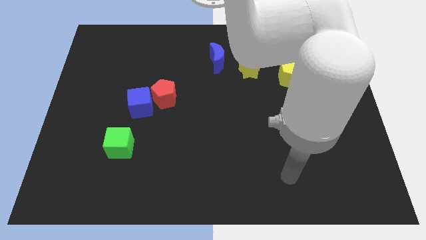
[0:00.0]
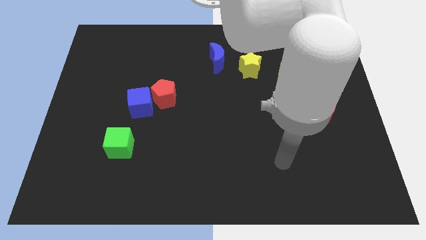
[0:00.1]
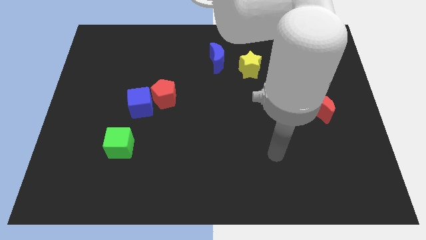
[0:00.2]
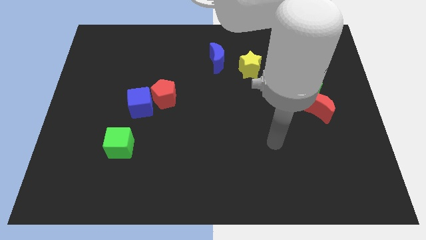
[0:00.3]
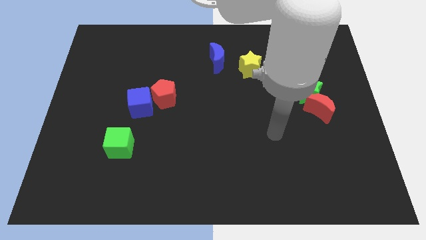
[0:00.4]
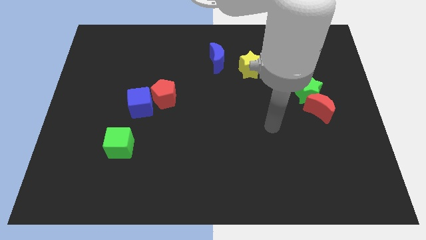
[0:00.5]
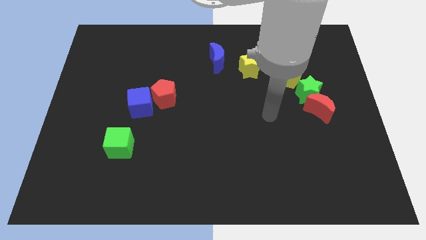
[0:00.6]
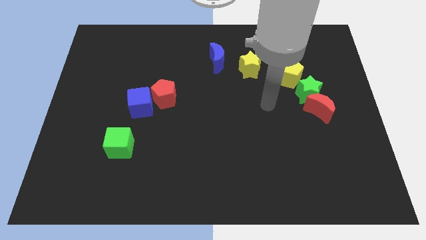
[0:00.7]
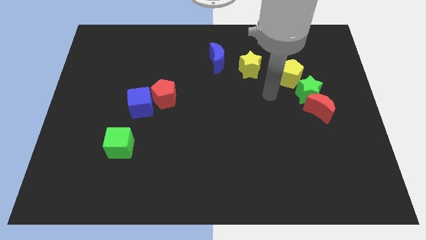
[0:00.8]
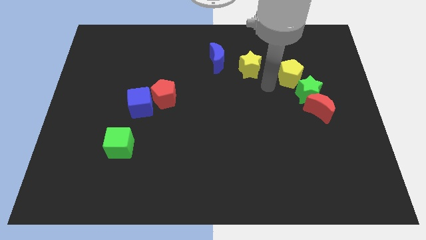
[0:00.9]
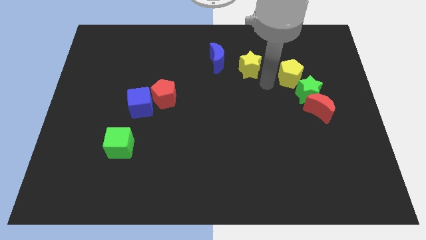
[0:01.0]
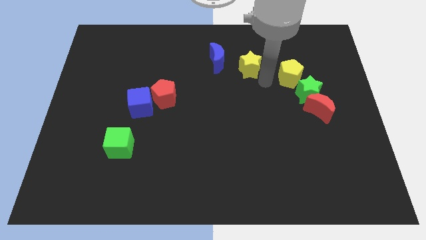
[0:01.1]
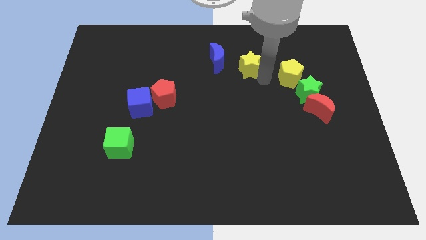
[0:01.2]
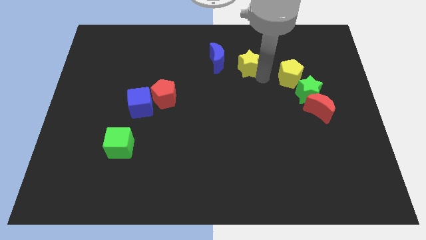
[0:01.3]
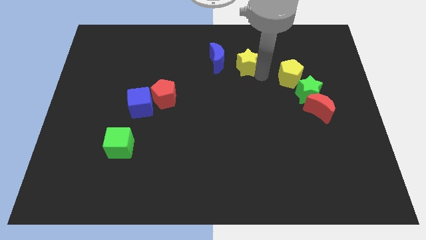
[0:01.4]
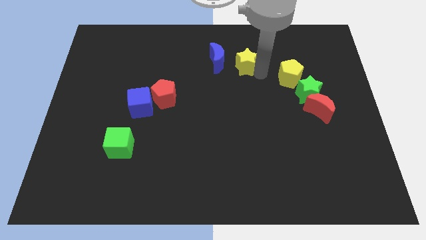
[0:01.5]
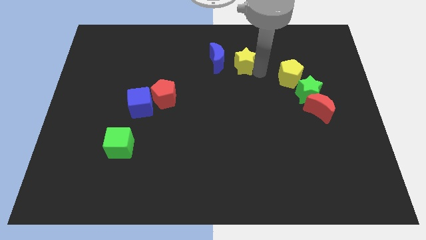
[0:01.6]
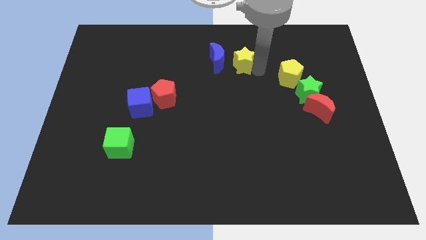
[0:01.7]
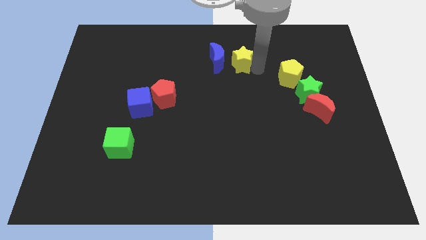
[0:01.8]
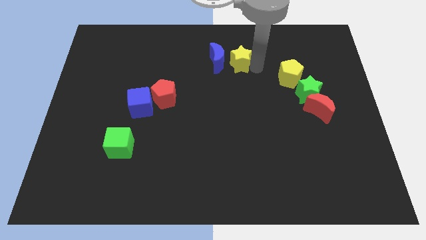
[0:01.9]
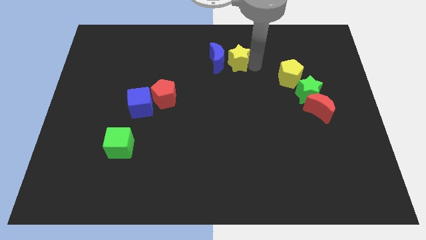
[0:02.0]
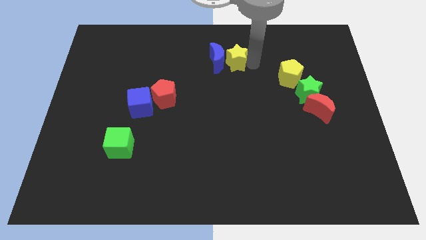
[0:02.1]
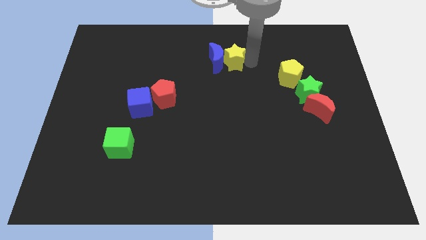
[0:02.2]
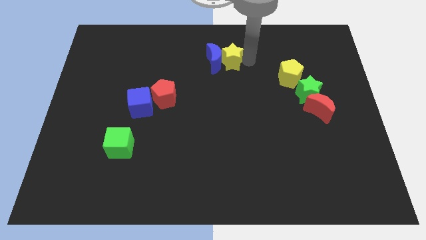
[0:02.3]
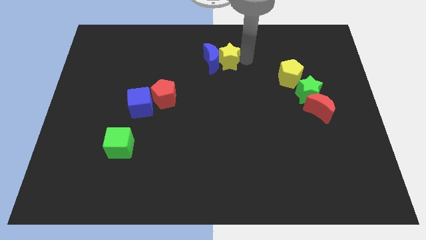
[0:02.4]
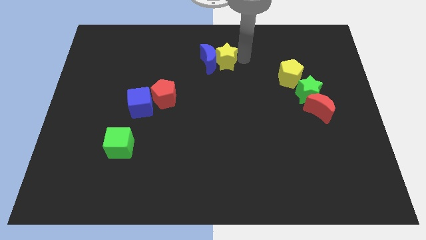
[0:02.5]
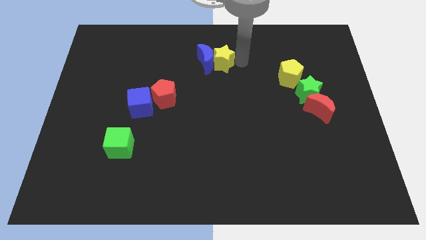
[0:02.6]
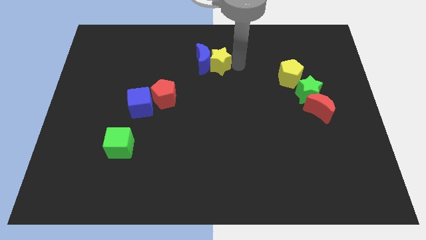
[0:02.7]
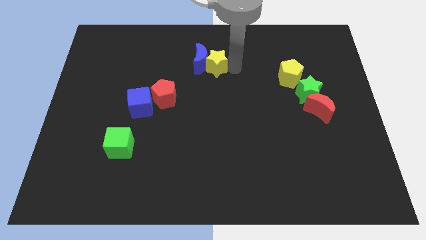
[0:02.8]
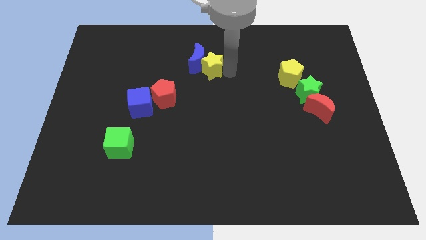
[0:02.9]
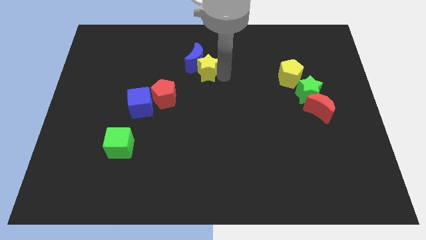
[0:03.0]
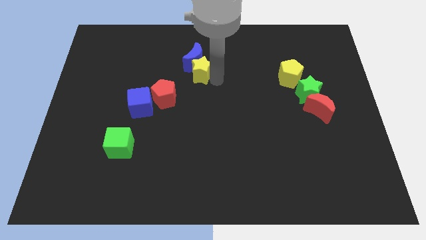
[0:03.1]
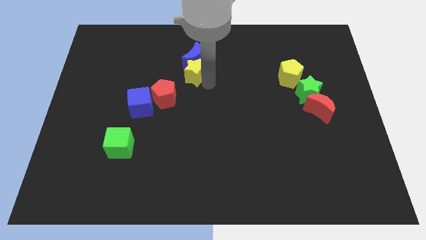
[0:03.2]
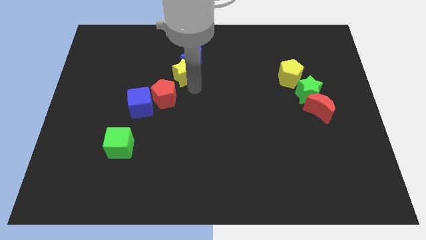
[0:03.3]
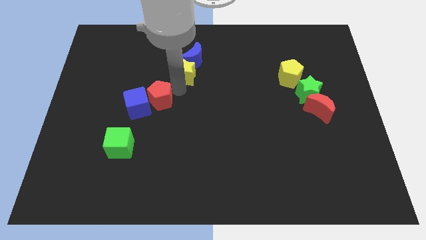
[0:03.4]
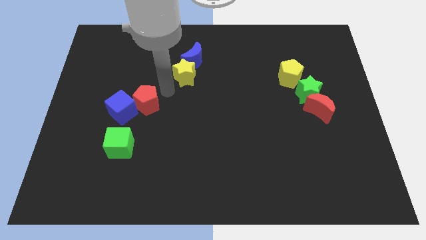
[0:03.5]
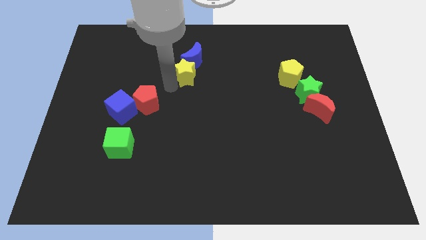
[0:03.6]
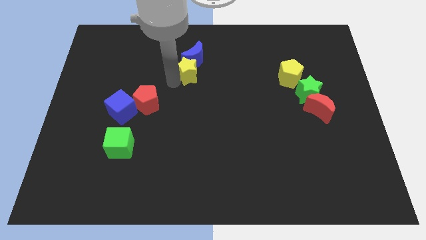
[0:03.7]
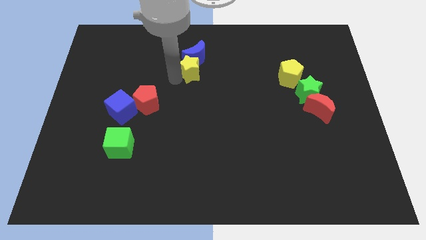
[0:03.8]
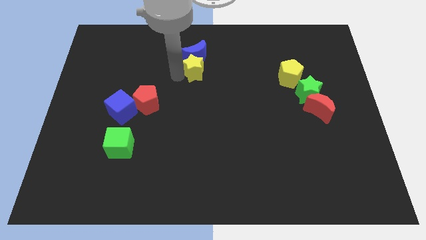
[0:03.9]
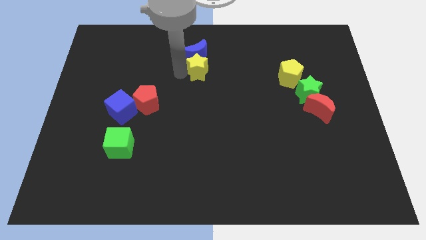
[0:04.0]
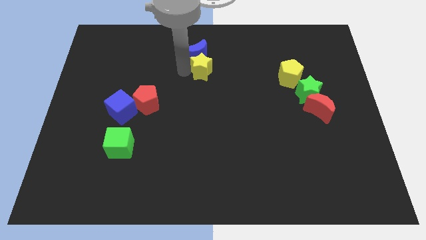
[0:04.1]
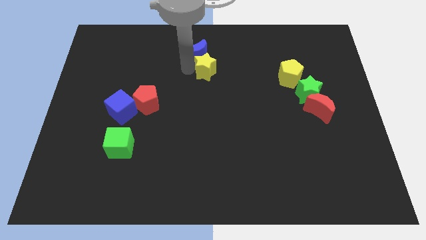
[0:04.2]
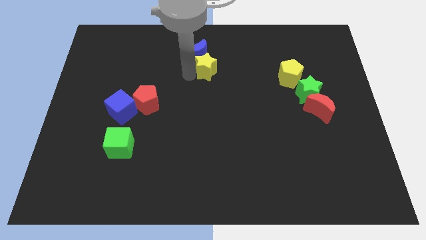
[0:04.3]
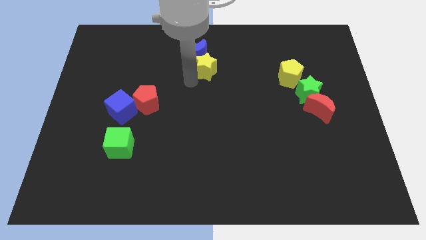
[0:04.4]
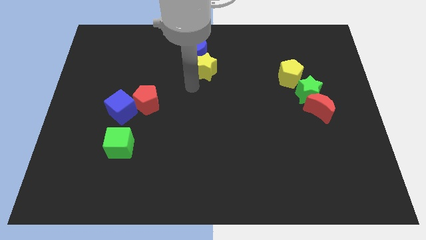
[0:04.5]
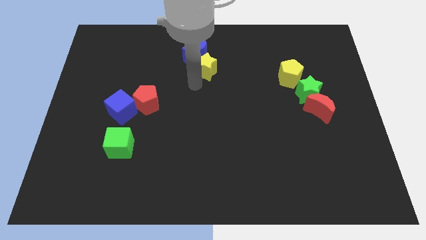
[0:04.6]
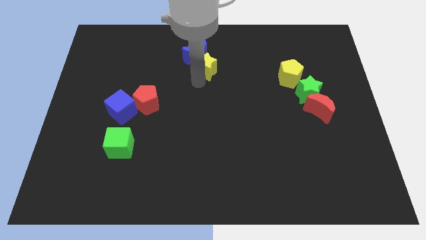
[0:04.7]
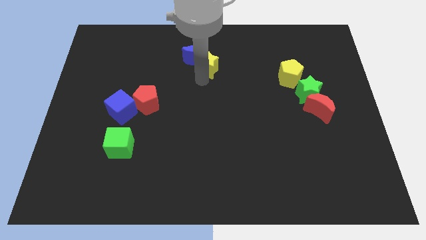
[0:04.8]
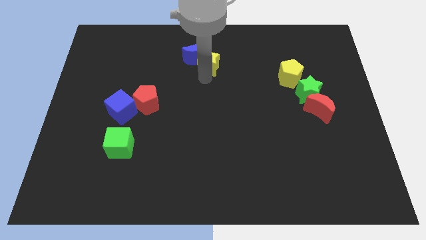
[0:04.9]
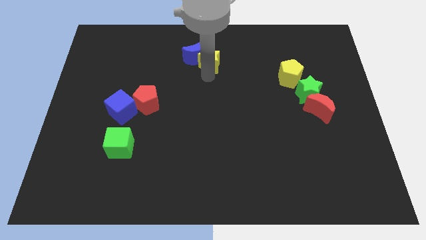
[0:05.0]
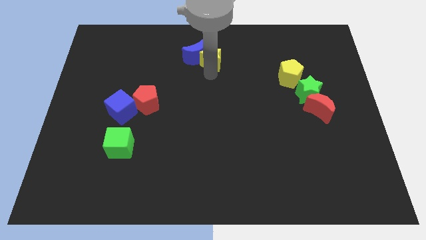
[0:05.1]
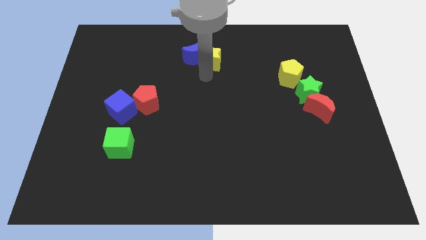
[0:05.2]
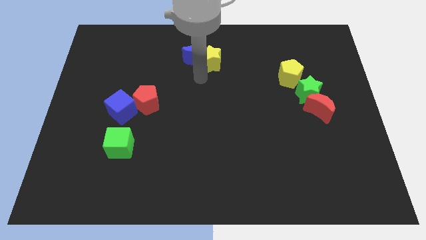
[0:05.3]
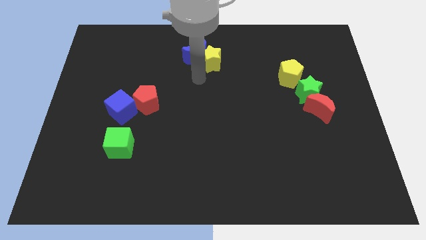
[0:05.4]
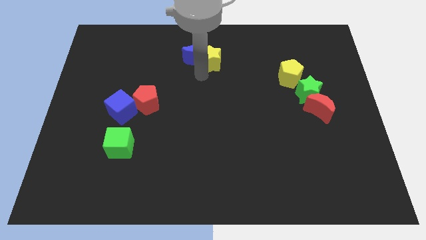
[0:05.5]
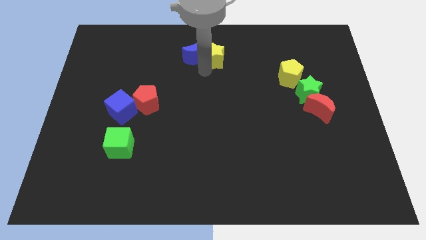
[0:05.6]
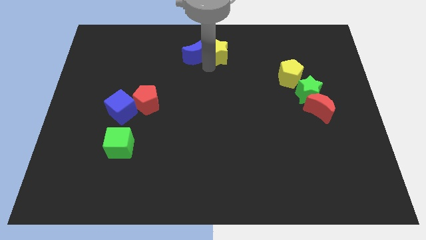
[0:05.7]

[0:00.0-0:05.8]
push the yellow star to the top side
